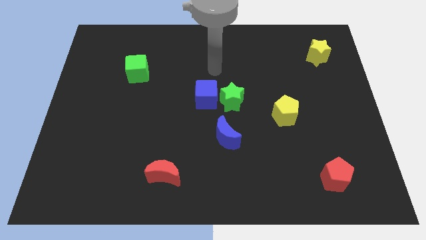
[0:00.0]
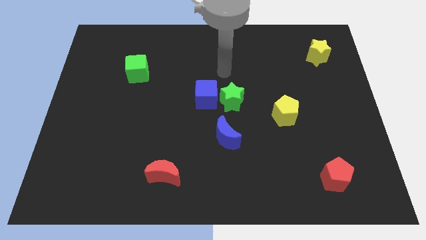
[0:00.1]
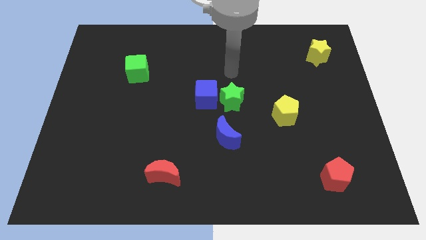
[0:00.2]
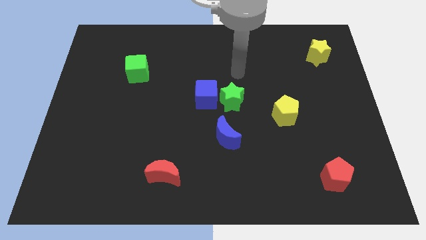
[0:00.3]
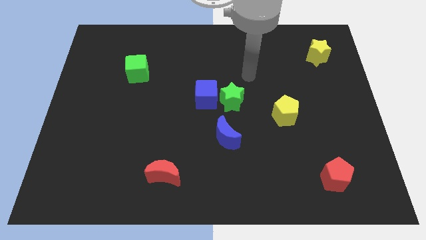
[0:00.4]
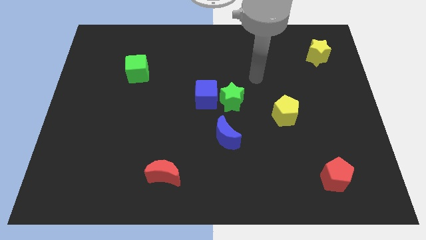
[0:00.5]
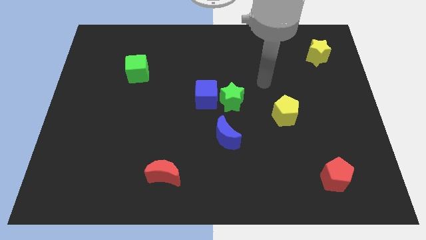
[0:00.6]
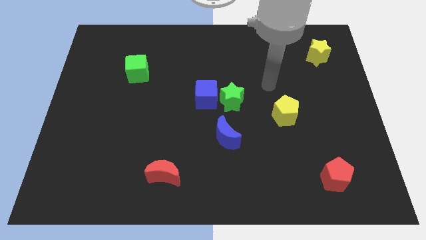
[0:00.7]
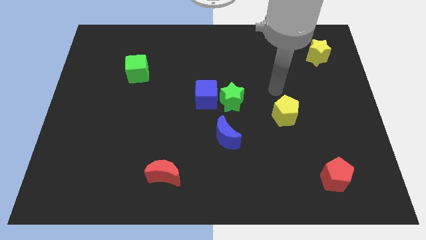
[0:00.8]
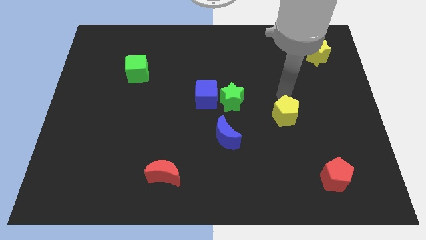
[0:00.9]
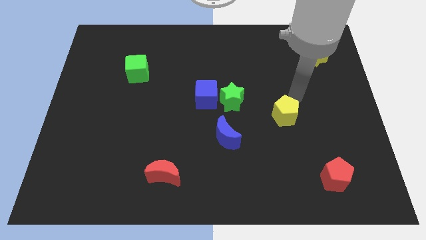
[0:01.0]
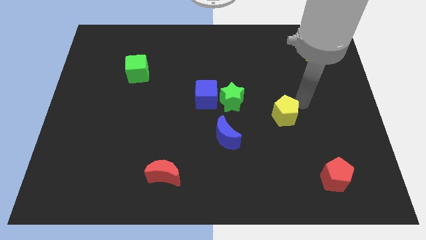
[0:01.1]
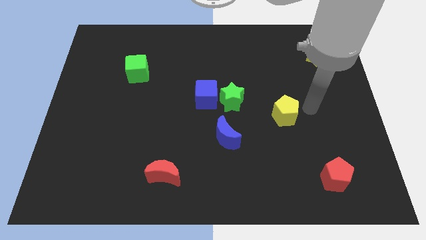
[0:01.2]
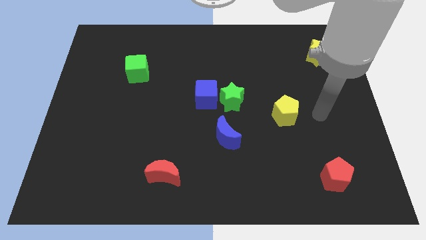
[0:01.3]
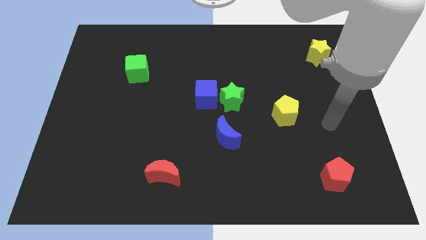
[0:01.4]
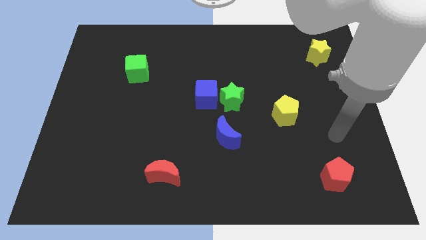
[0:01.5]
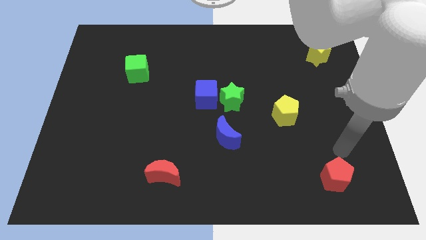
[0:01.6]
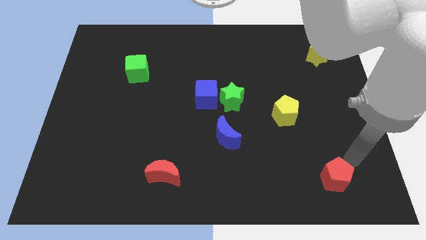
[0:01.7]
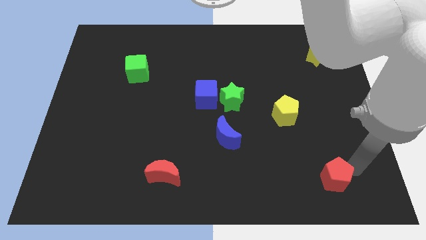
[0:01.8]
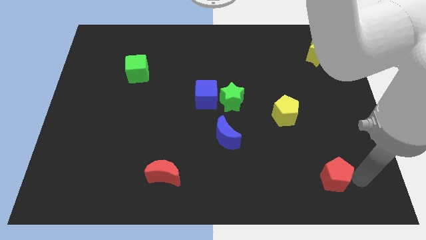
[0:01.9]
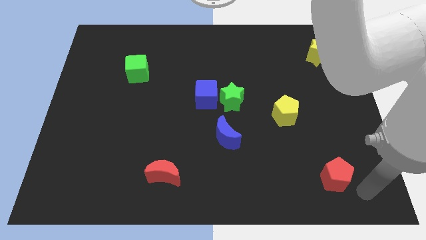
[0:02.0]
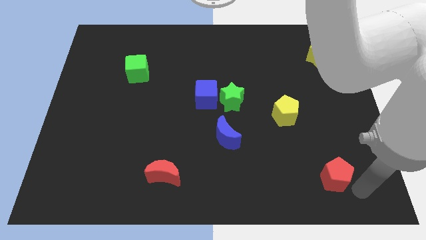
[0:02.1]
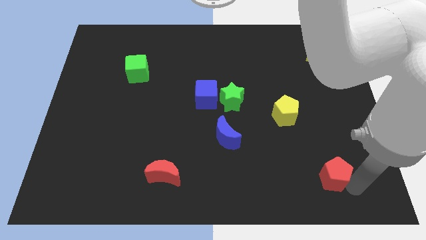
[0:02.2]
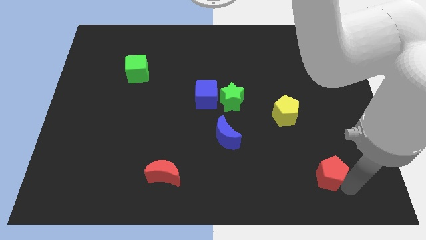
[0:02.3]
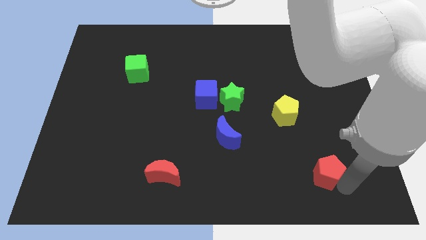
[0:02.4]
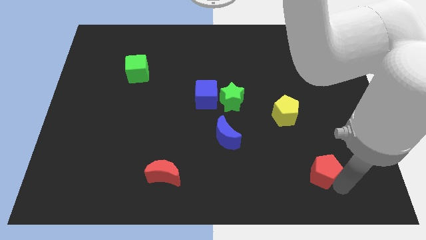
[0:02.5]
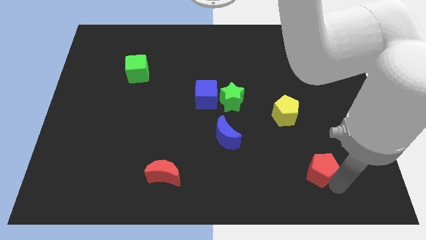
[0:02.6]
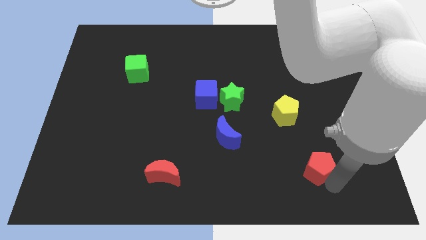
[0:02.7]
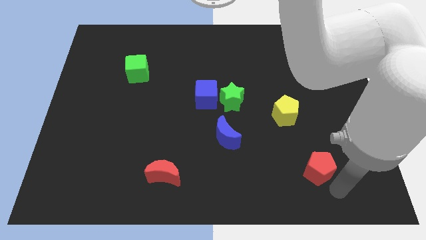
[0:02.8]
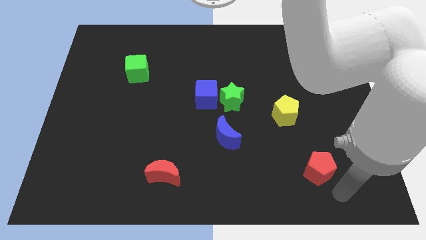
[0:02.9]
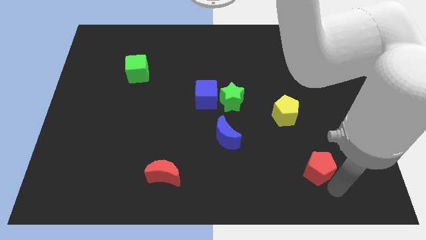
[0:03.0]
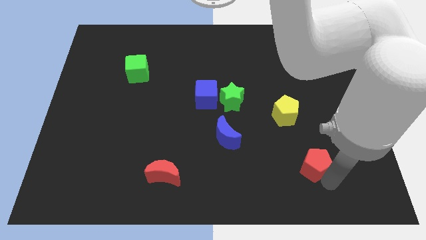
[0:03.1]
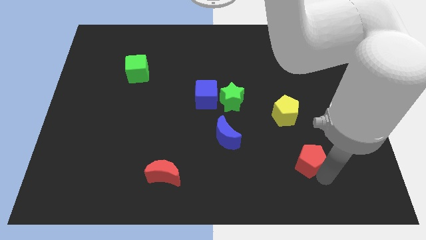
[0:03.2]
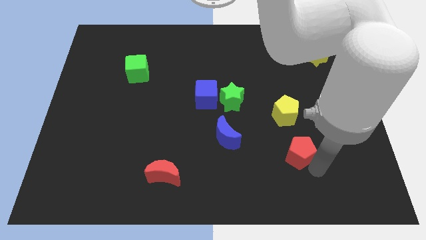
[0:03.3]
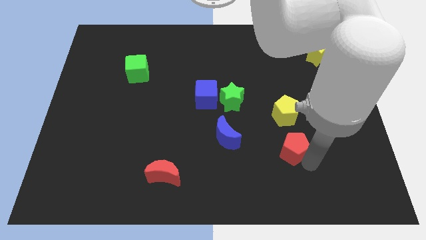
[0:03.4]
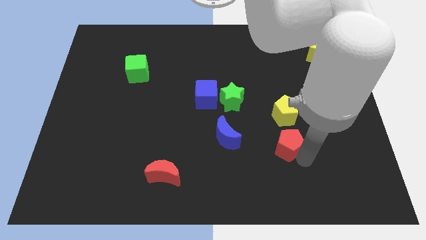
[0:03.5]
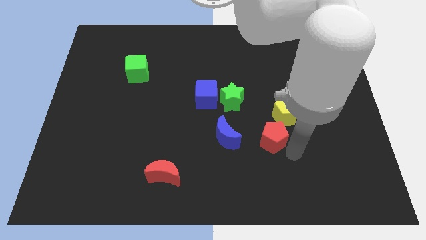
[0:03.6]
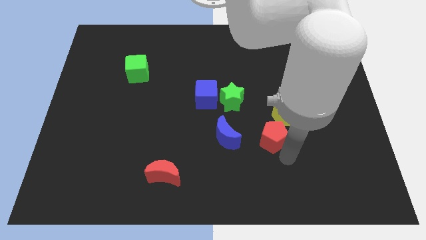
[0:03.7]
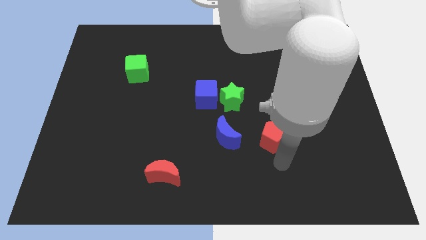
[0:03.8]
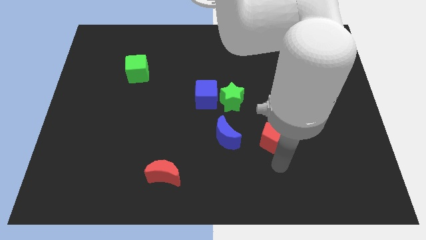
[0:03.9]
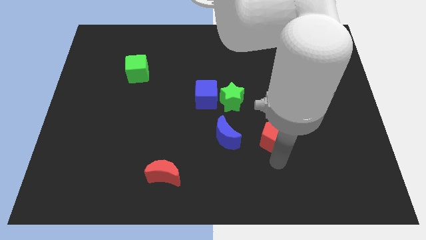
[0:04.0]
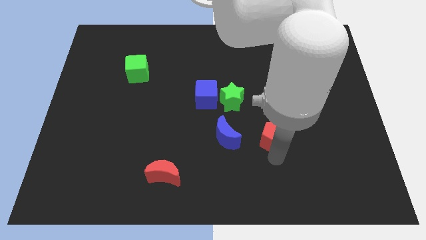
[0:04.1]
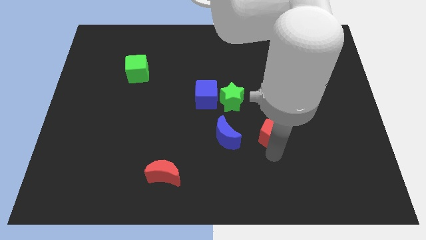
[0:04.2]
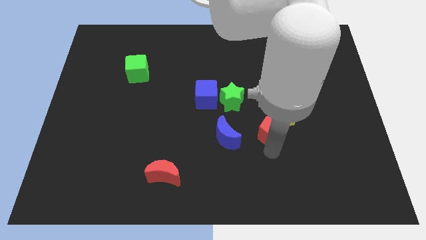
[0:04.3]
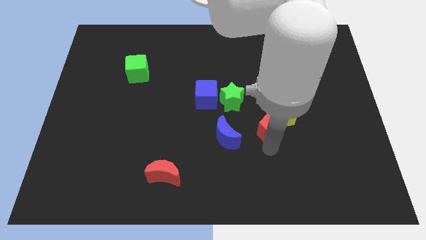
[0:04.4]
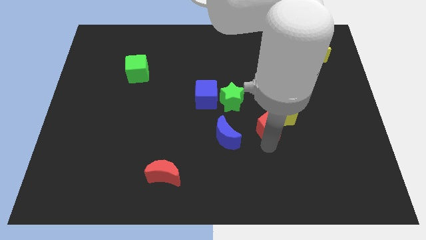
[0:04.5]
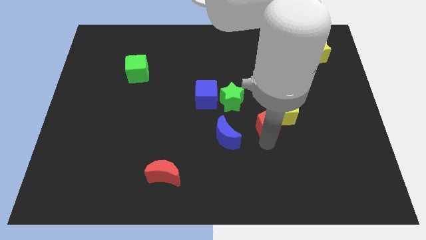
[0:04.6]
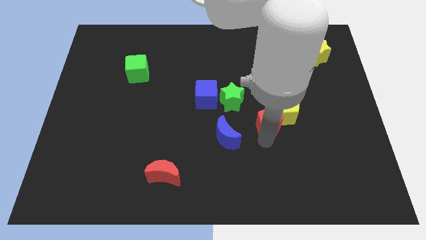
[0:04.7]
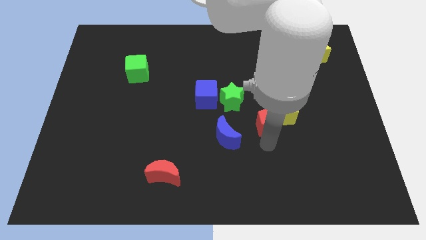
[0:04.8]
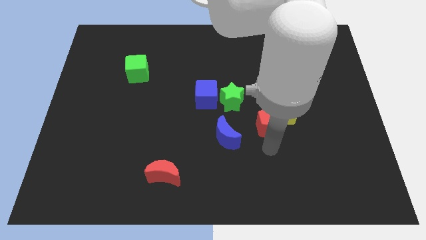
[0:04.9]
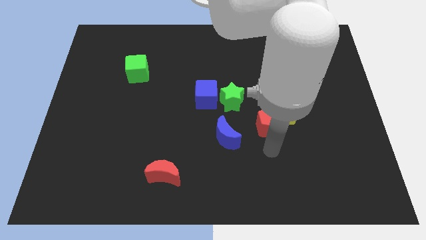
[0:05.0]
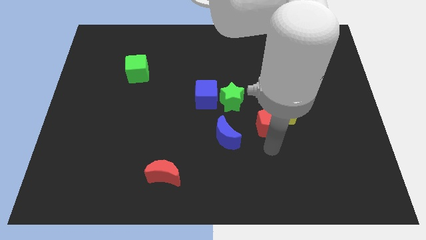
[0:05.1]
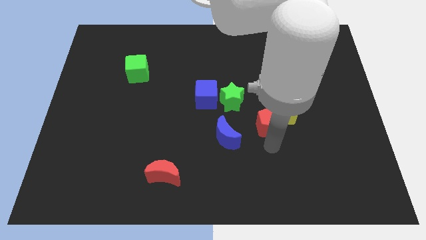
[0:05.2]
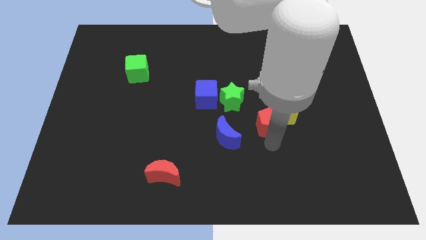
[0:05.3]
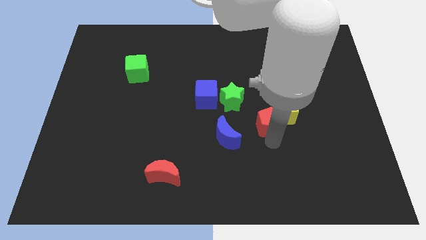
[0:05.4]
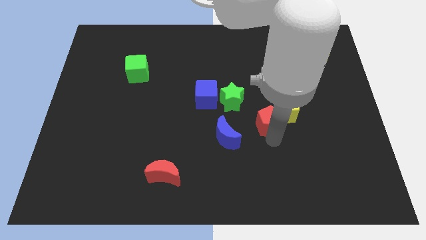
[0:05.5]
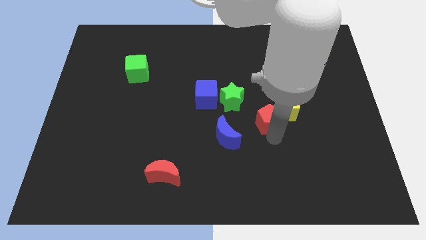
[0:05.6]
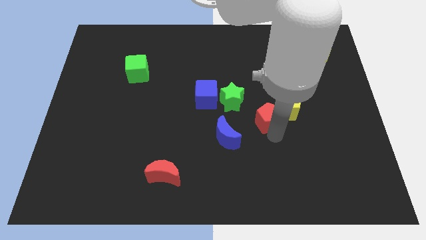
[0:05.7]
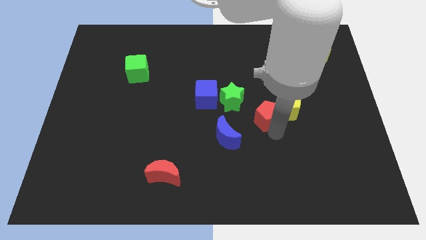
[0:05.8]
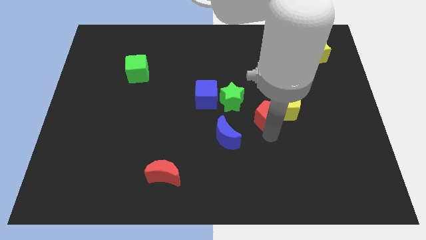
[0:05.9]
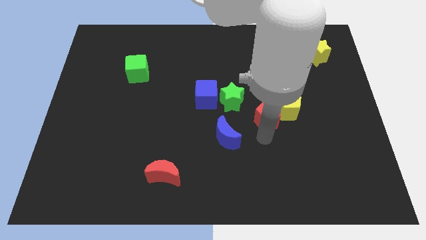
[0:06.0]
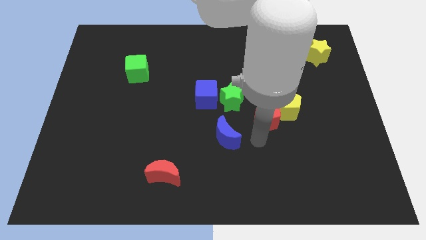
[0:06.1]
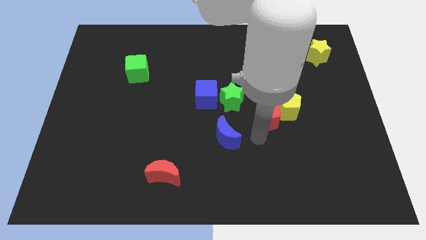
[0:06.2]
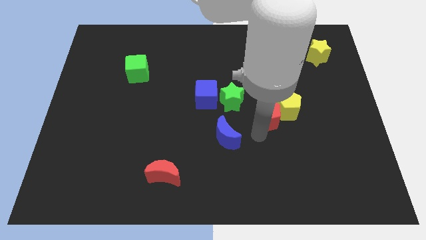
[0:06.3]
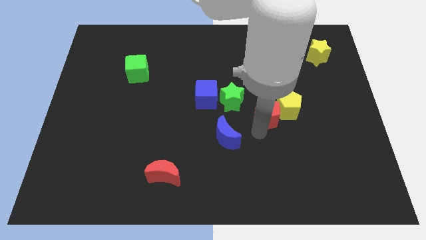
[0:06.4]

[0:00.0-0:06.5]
put the red pentagon to the right side of the green star
